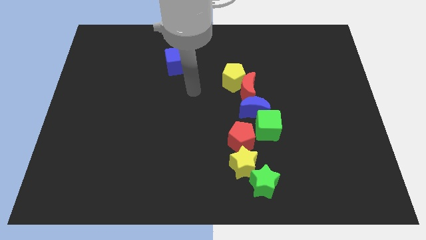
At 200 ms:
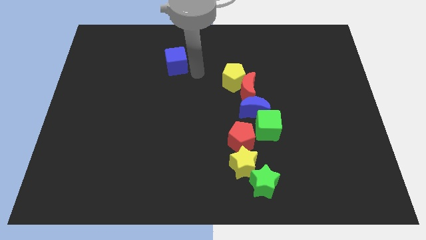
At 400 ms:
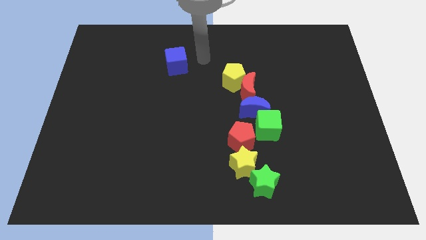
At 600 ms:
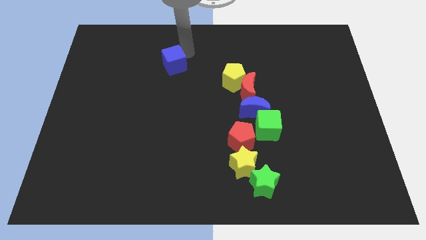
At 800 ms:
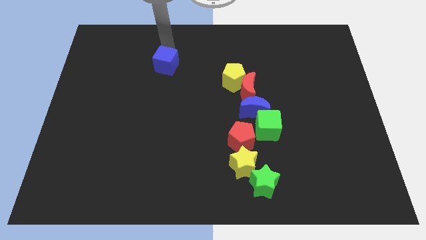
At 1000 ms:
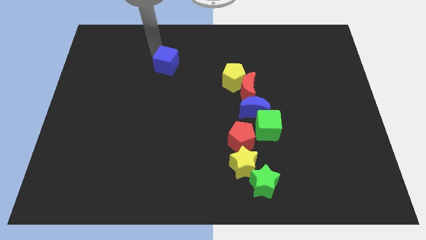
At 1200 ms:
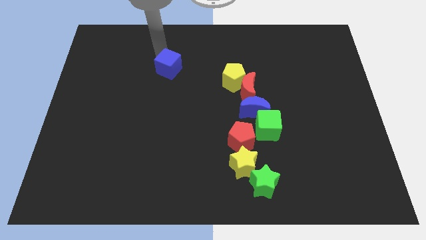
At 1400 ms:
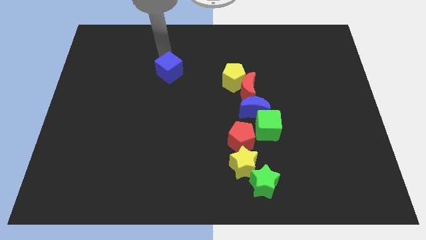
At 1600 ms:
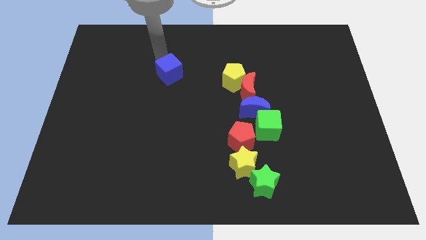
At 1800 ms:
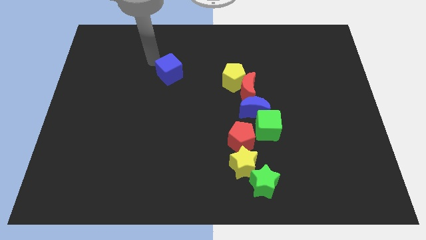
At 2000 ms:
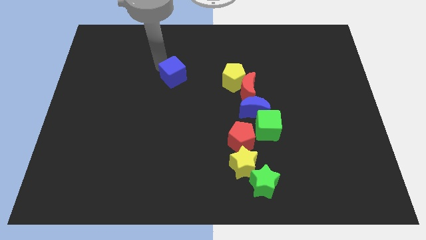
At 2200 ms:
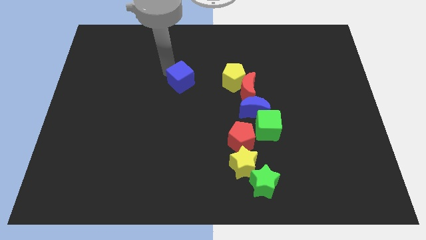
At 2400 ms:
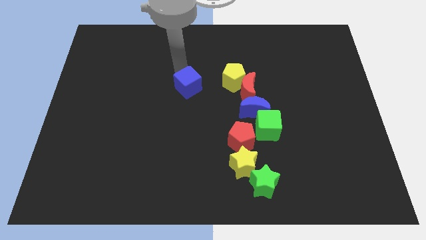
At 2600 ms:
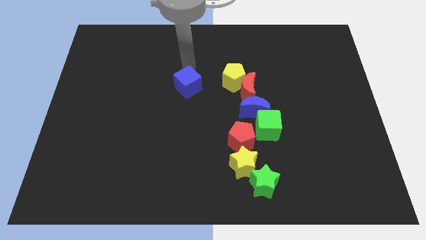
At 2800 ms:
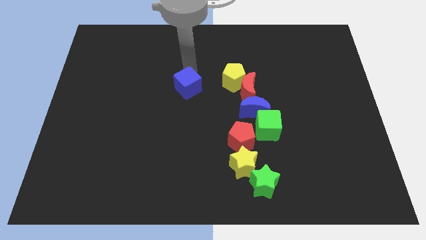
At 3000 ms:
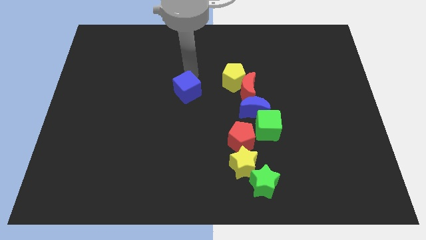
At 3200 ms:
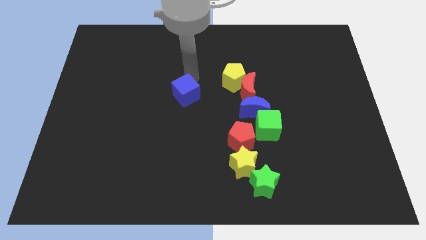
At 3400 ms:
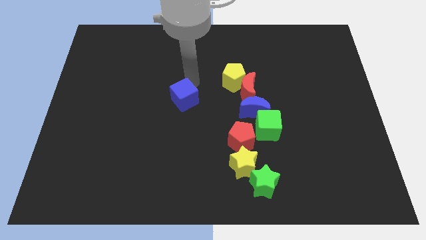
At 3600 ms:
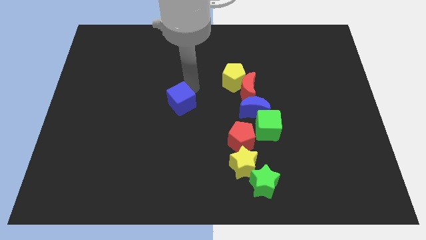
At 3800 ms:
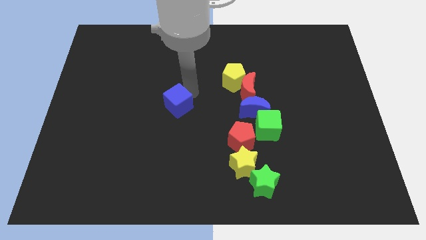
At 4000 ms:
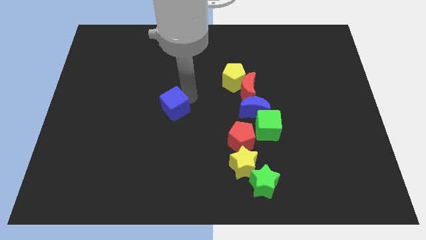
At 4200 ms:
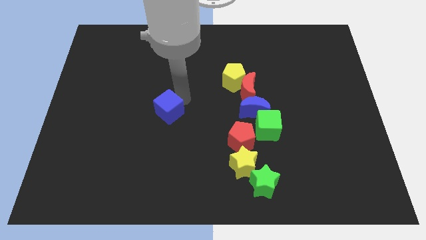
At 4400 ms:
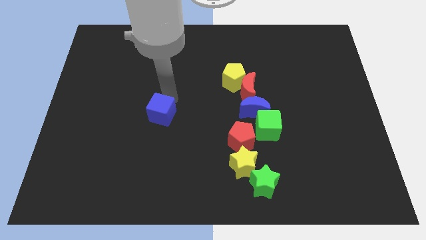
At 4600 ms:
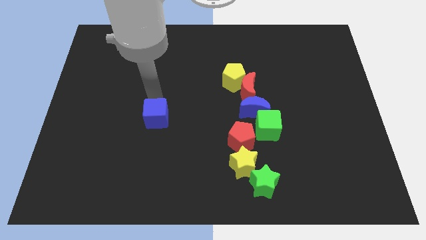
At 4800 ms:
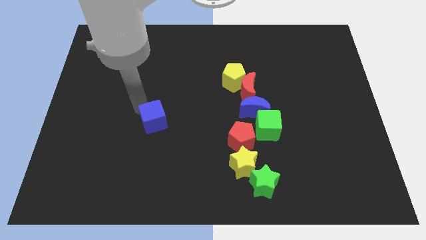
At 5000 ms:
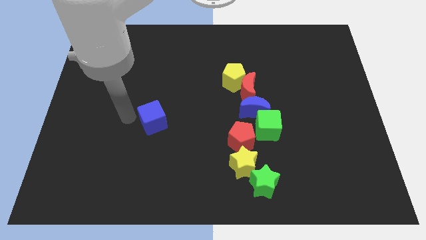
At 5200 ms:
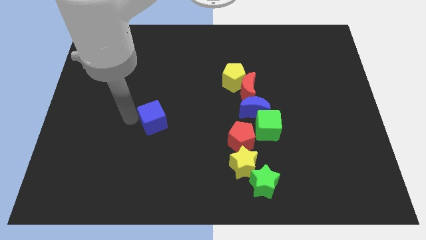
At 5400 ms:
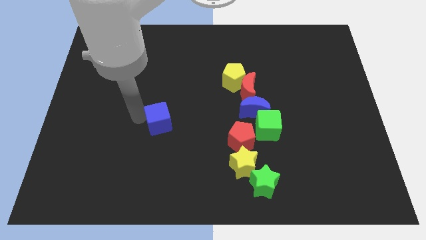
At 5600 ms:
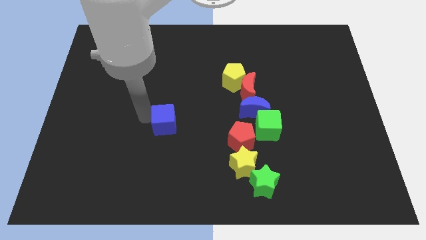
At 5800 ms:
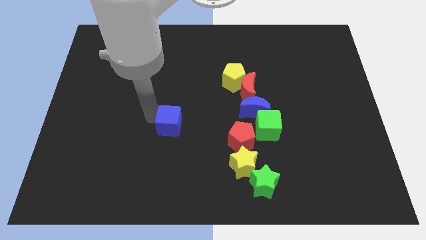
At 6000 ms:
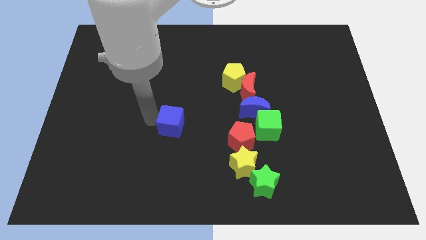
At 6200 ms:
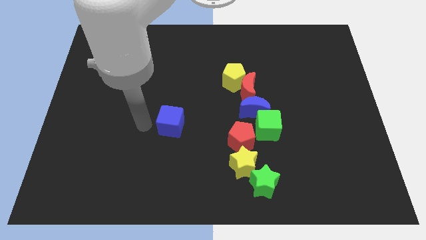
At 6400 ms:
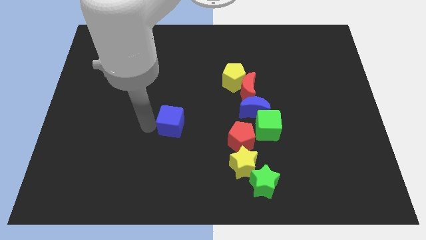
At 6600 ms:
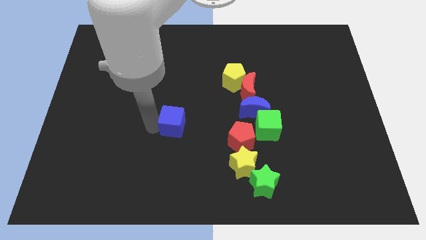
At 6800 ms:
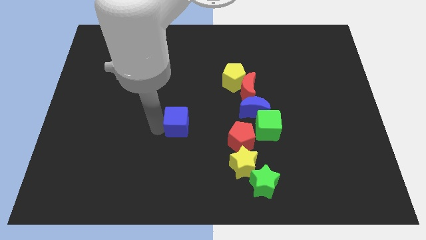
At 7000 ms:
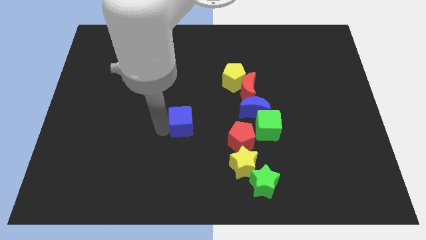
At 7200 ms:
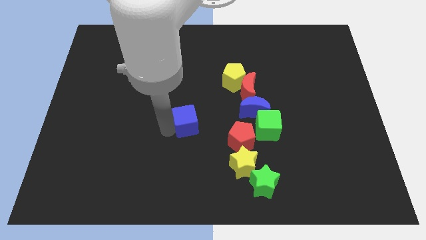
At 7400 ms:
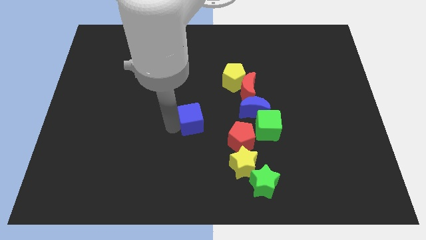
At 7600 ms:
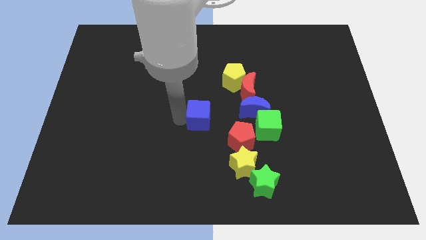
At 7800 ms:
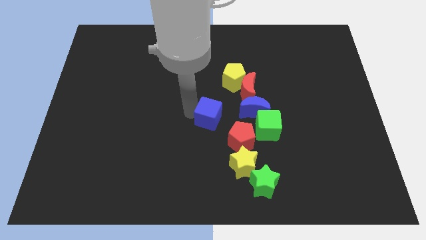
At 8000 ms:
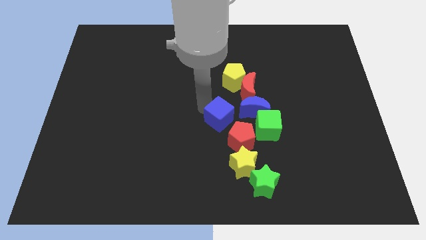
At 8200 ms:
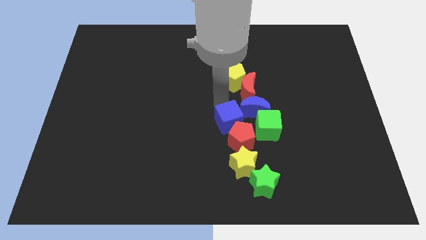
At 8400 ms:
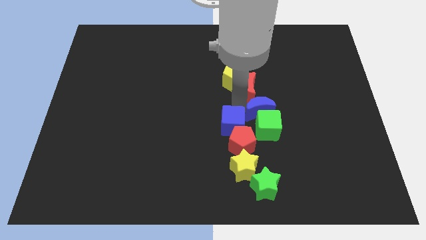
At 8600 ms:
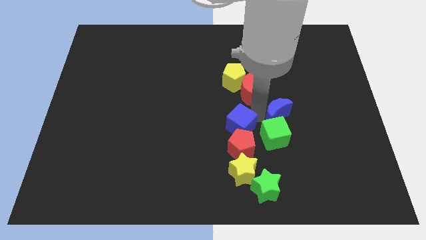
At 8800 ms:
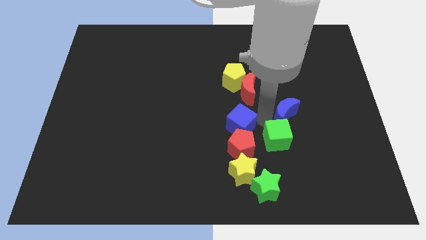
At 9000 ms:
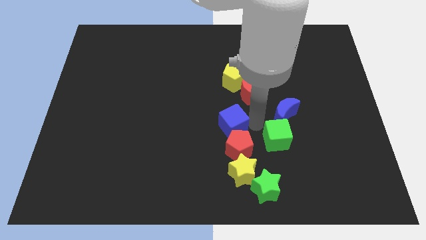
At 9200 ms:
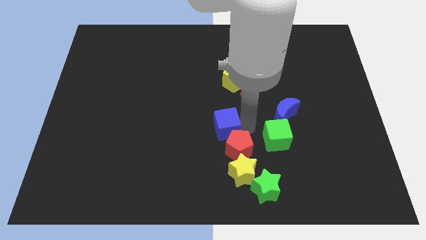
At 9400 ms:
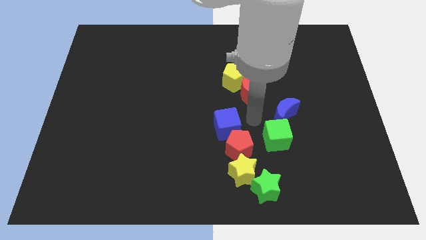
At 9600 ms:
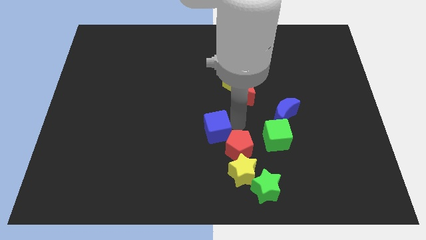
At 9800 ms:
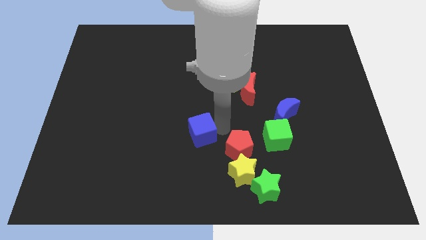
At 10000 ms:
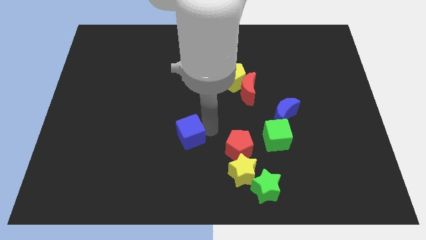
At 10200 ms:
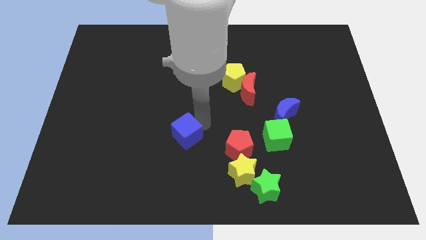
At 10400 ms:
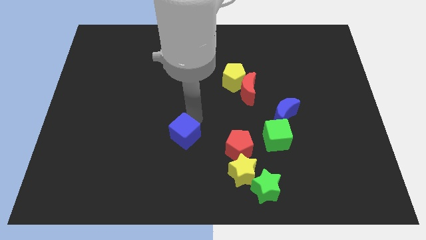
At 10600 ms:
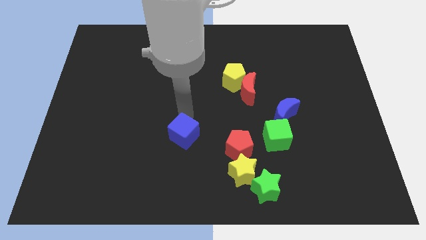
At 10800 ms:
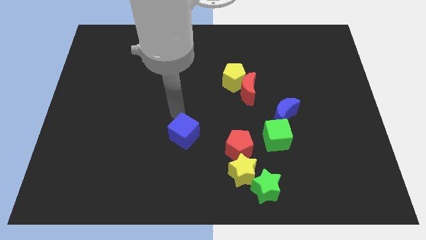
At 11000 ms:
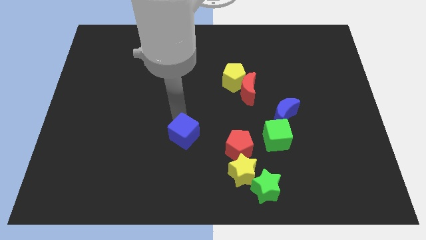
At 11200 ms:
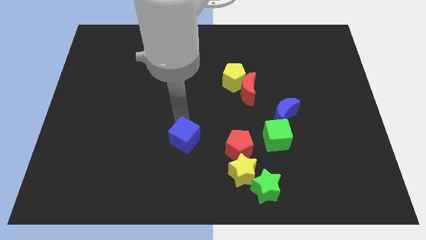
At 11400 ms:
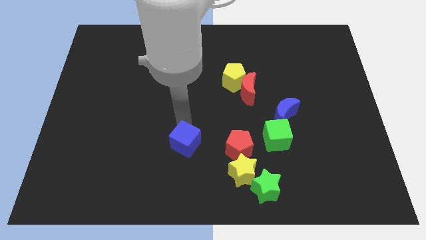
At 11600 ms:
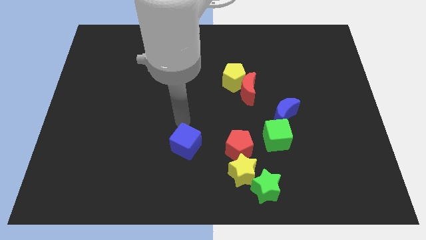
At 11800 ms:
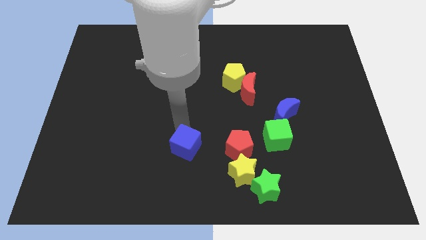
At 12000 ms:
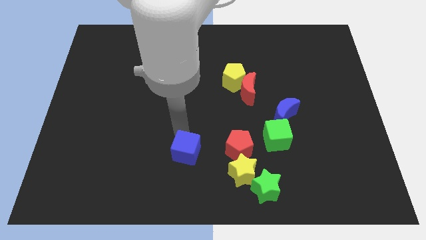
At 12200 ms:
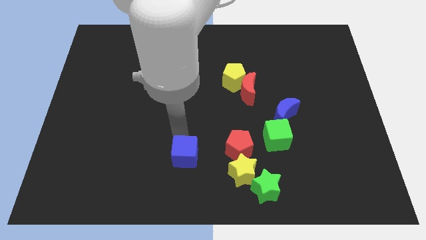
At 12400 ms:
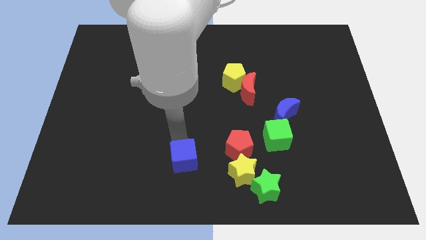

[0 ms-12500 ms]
slide the blue cube to the bottom

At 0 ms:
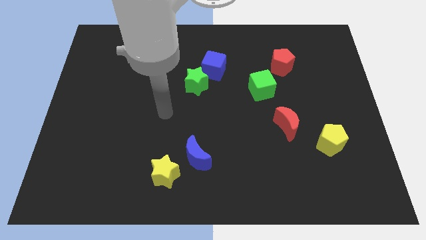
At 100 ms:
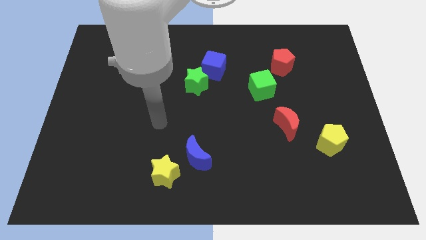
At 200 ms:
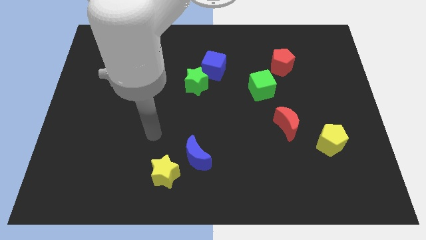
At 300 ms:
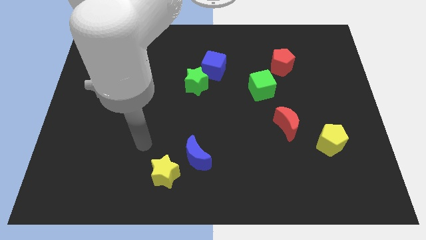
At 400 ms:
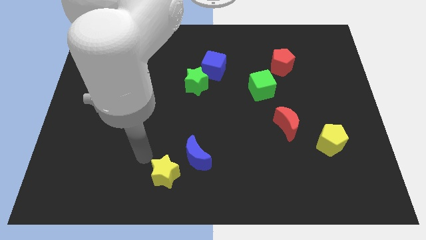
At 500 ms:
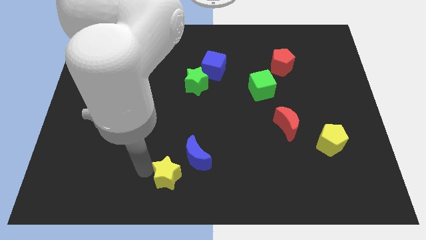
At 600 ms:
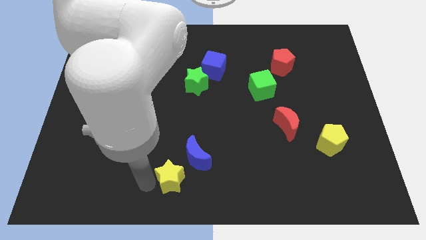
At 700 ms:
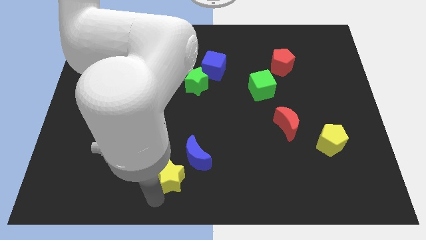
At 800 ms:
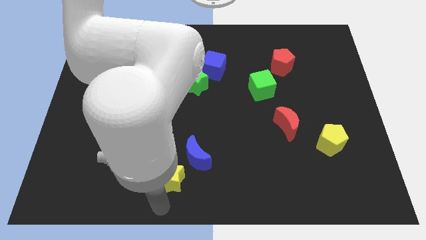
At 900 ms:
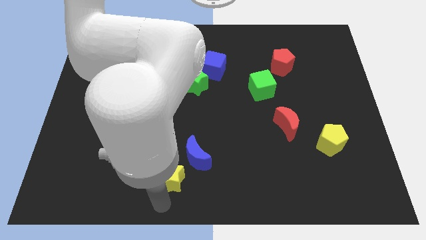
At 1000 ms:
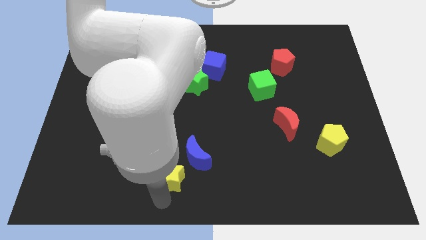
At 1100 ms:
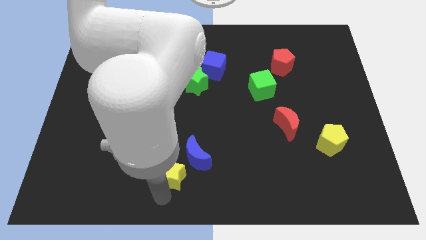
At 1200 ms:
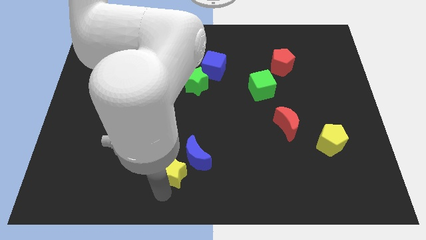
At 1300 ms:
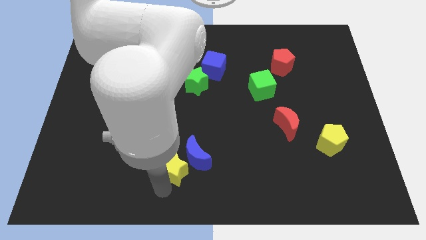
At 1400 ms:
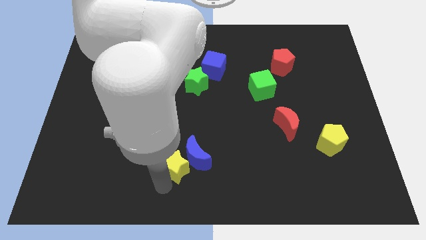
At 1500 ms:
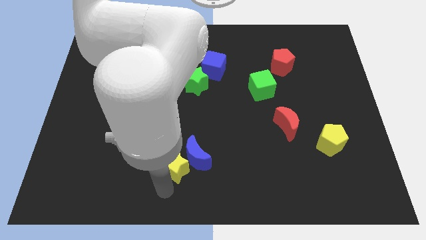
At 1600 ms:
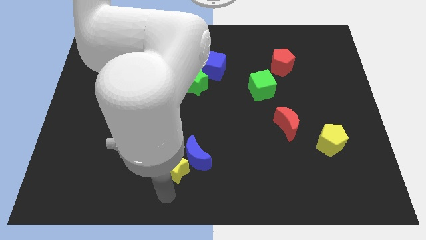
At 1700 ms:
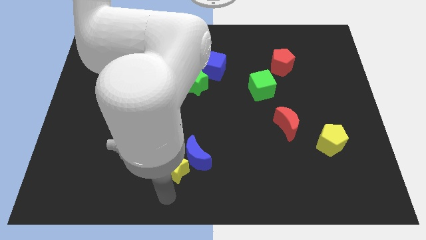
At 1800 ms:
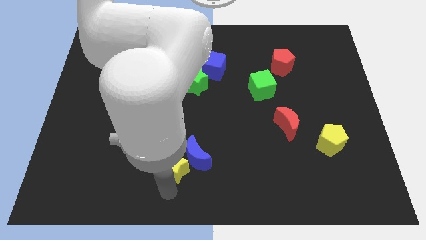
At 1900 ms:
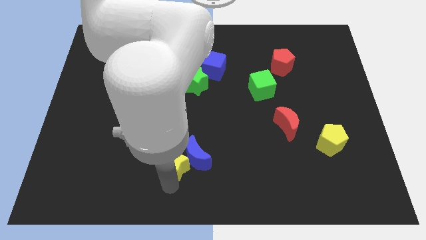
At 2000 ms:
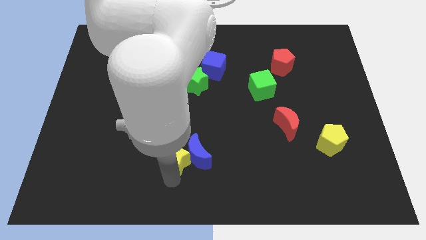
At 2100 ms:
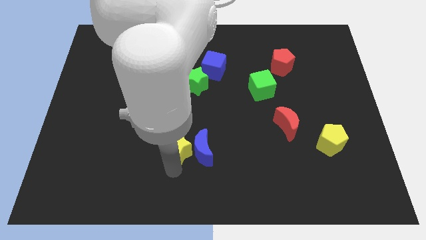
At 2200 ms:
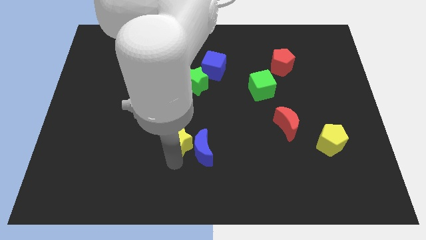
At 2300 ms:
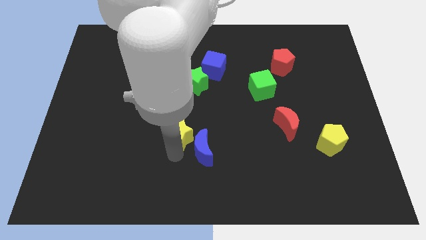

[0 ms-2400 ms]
move the yellow star to the center
